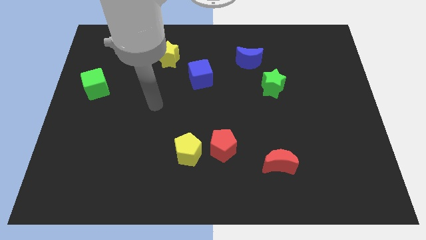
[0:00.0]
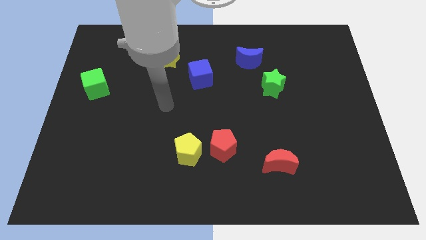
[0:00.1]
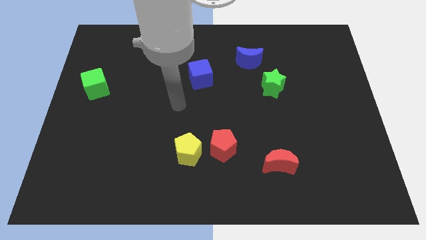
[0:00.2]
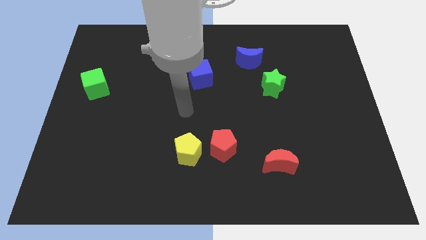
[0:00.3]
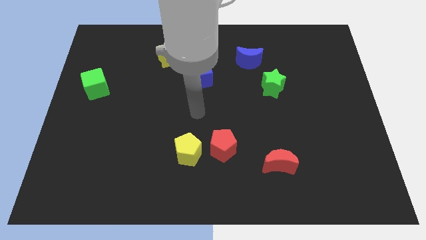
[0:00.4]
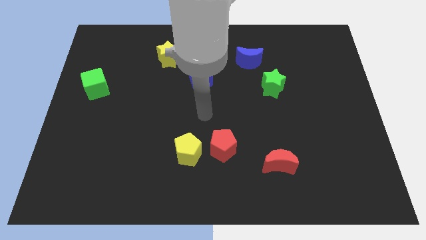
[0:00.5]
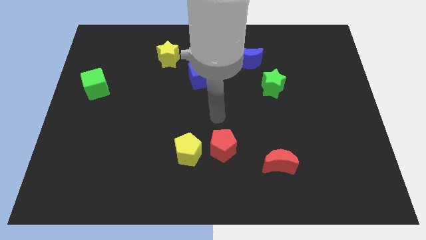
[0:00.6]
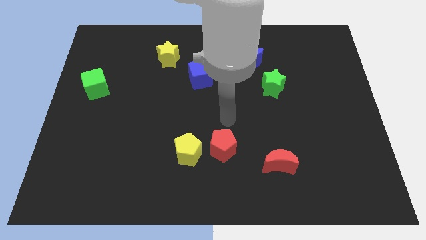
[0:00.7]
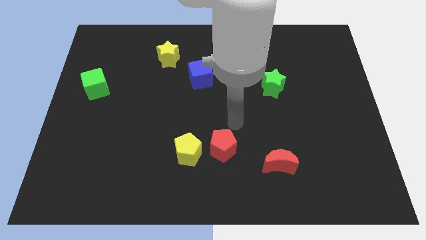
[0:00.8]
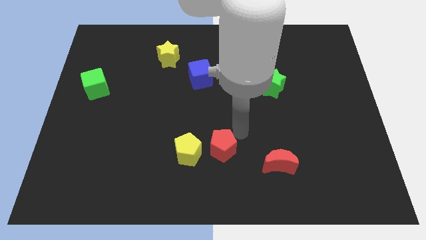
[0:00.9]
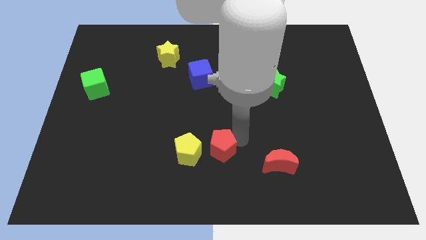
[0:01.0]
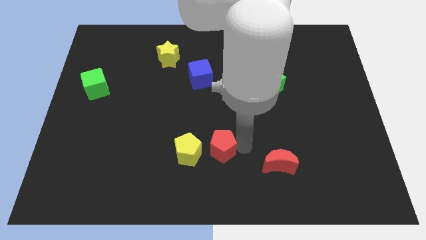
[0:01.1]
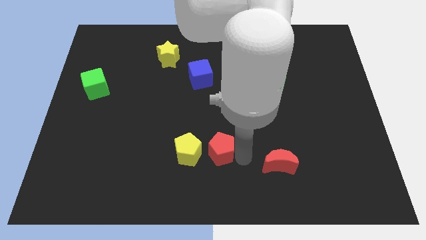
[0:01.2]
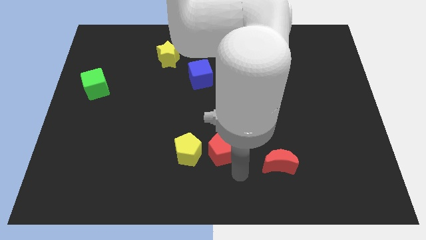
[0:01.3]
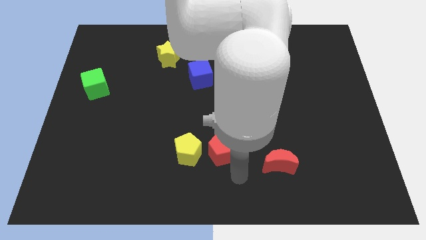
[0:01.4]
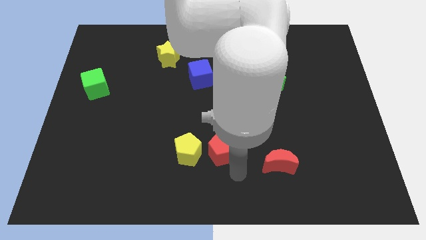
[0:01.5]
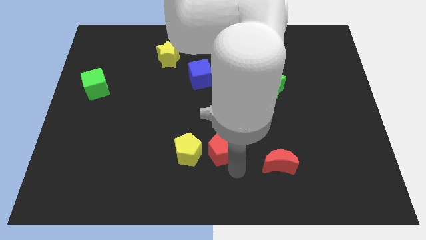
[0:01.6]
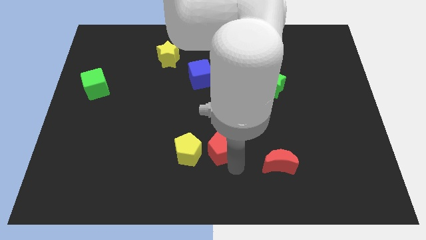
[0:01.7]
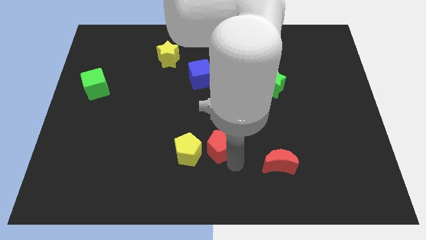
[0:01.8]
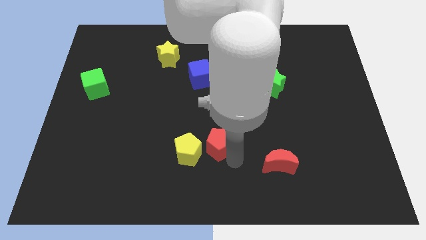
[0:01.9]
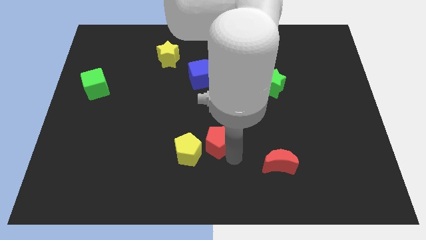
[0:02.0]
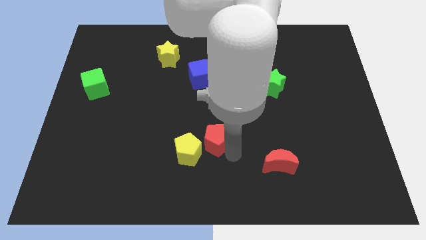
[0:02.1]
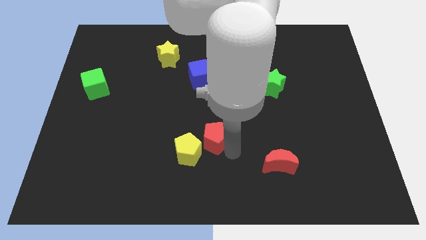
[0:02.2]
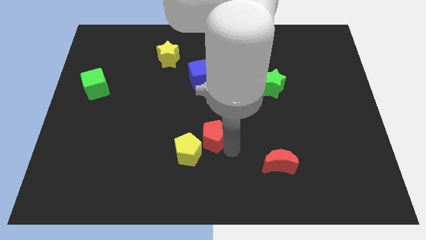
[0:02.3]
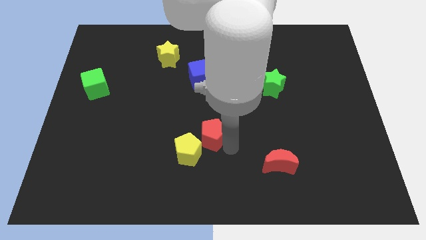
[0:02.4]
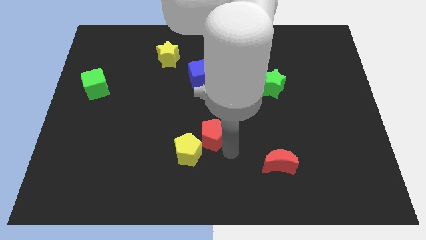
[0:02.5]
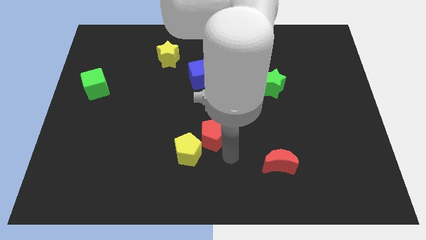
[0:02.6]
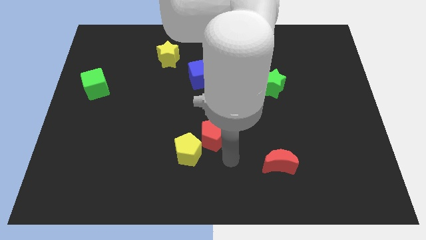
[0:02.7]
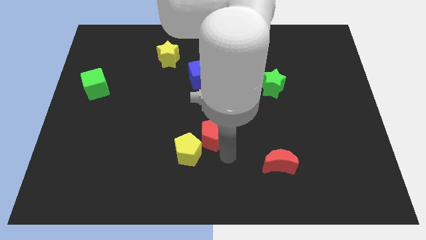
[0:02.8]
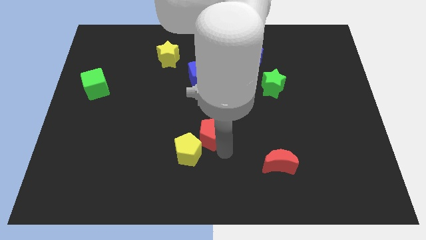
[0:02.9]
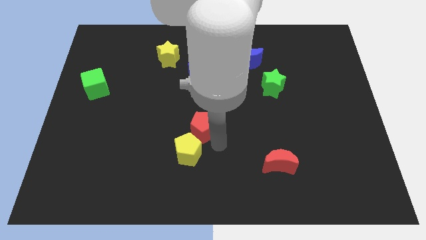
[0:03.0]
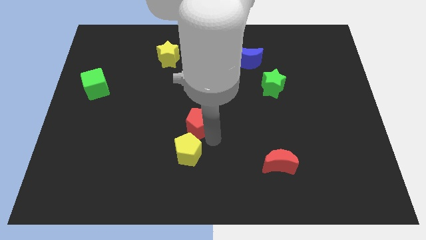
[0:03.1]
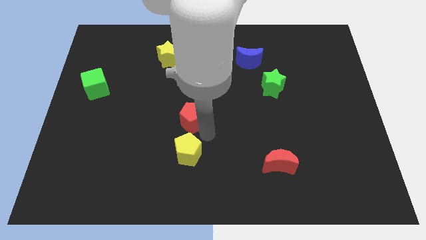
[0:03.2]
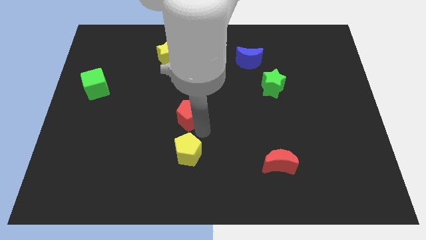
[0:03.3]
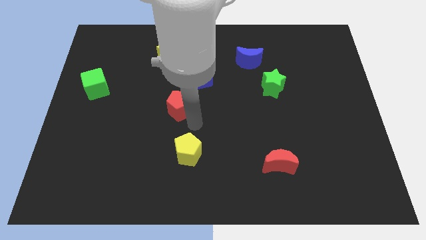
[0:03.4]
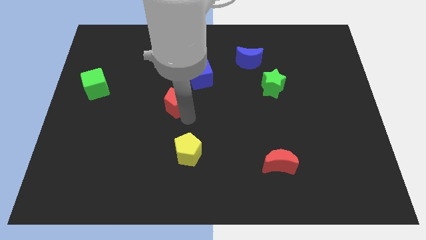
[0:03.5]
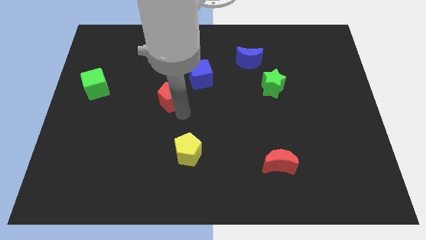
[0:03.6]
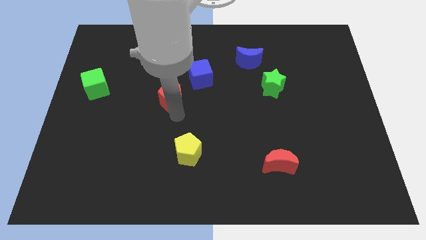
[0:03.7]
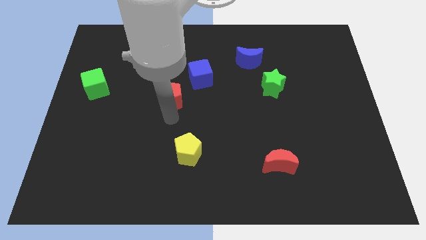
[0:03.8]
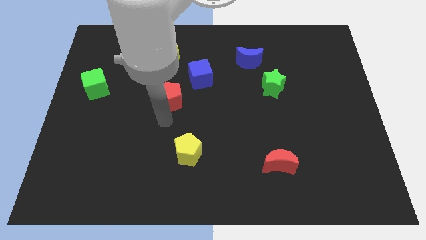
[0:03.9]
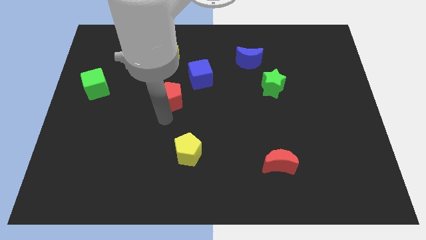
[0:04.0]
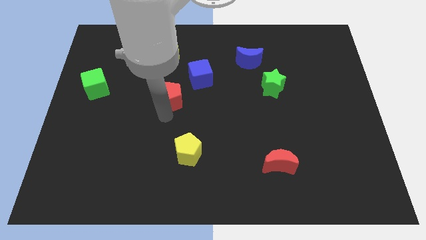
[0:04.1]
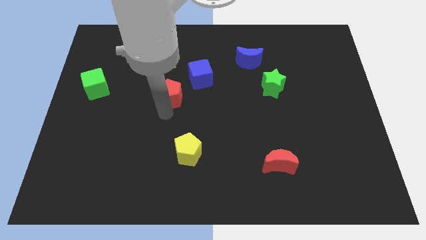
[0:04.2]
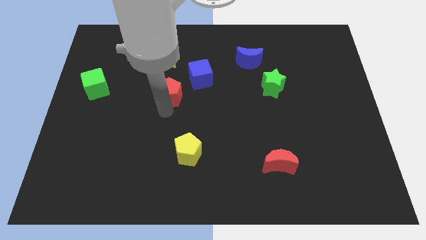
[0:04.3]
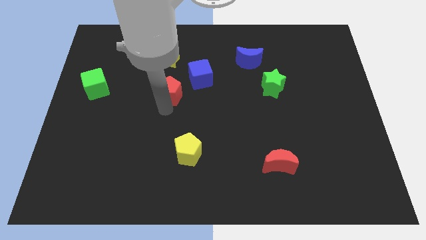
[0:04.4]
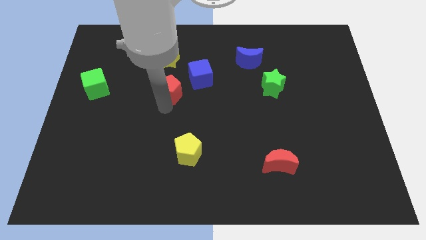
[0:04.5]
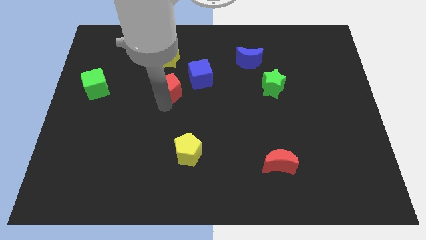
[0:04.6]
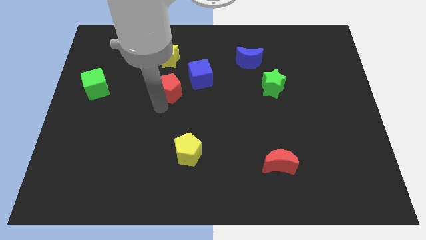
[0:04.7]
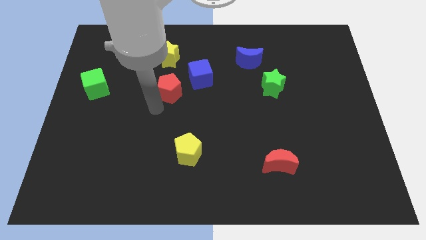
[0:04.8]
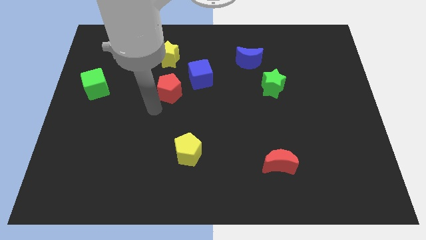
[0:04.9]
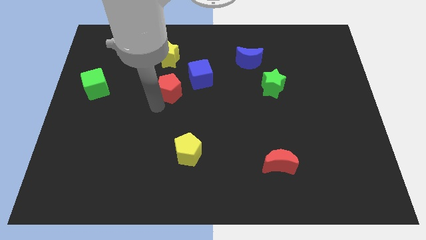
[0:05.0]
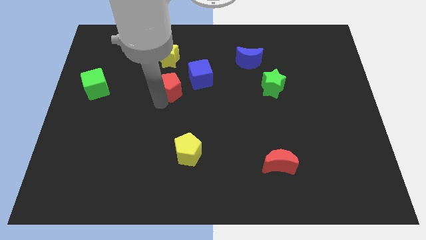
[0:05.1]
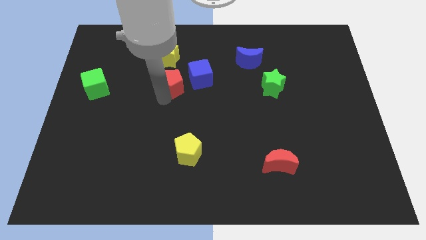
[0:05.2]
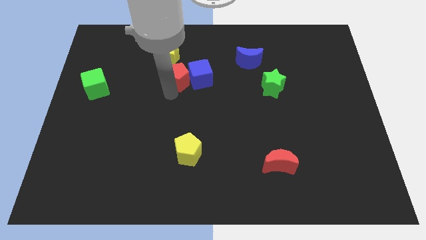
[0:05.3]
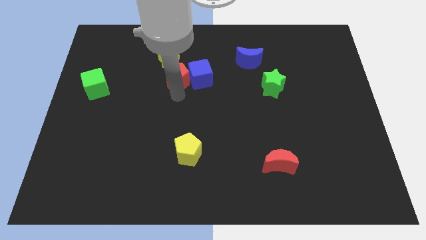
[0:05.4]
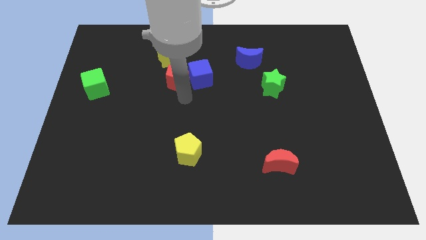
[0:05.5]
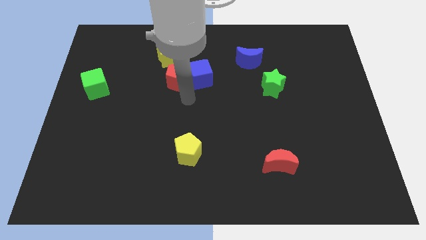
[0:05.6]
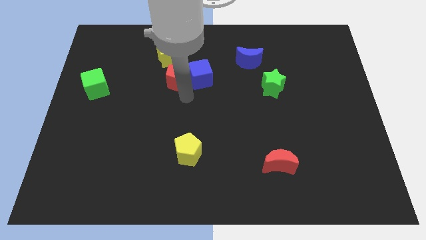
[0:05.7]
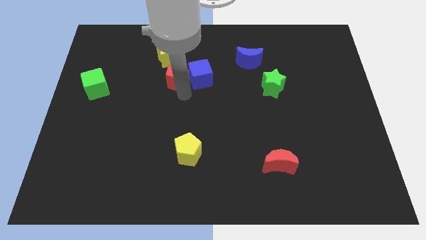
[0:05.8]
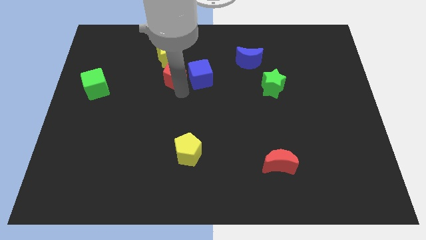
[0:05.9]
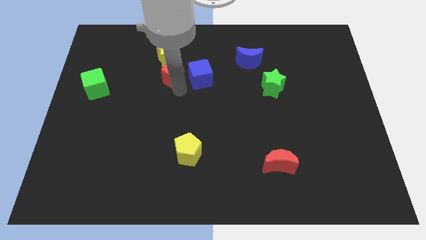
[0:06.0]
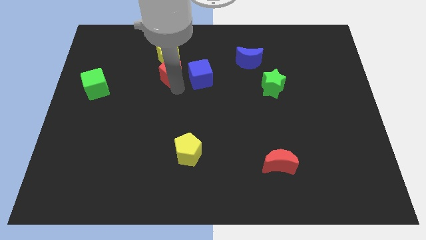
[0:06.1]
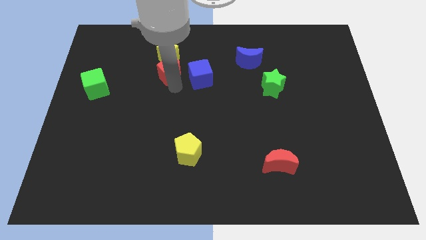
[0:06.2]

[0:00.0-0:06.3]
slide the red pentagon towards the yellow star
